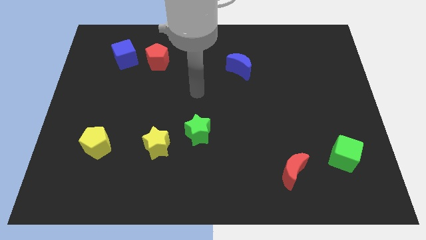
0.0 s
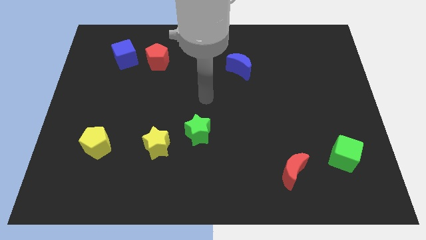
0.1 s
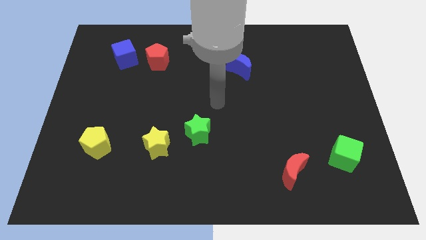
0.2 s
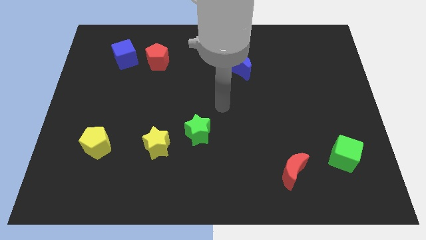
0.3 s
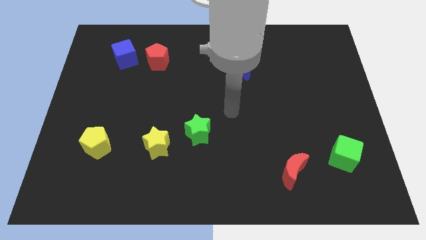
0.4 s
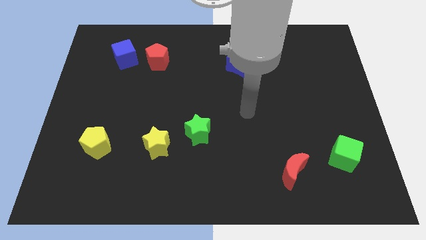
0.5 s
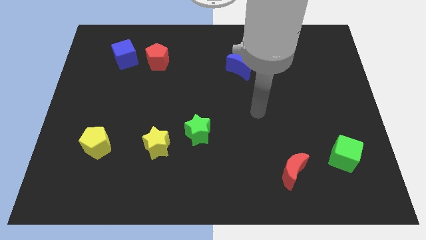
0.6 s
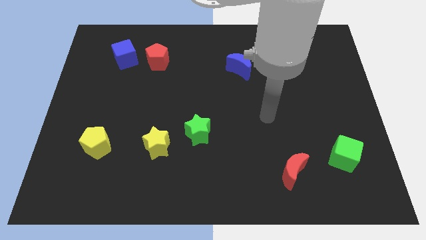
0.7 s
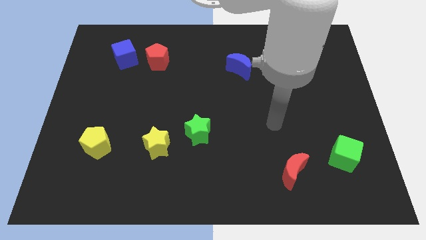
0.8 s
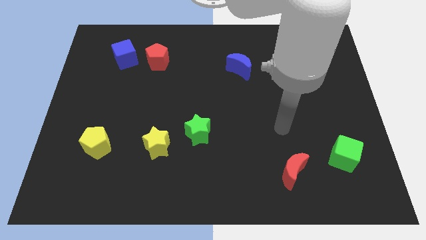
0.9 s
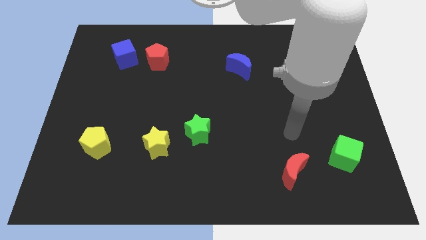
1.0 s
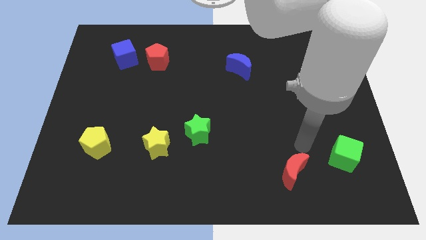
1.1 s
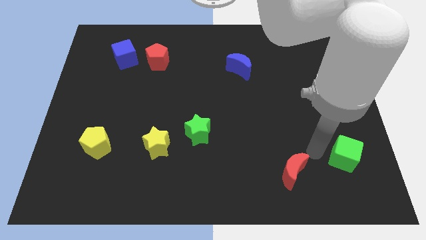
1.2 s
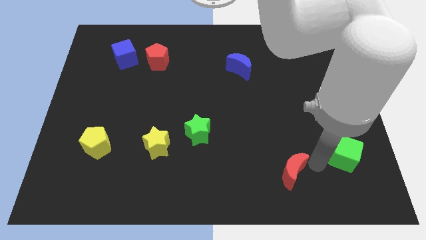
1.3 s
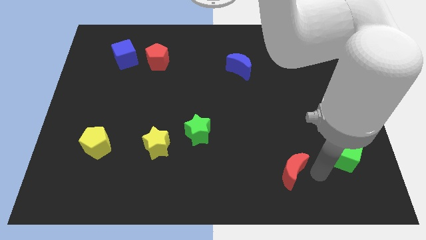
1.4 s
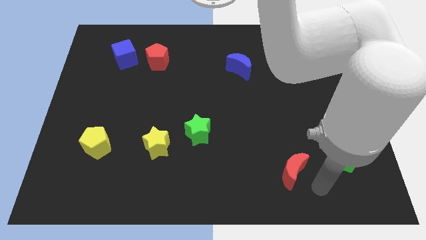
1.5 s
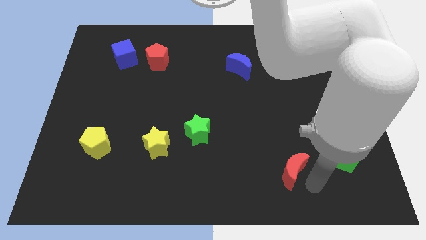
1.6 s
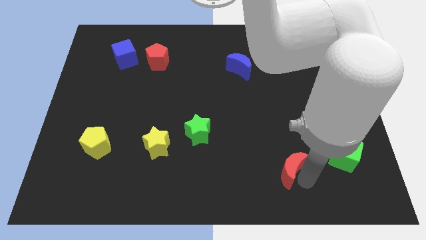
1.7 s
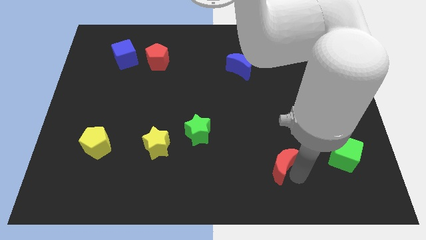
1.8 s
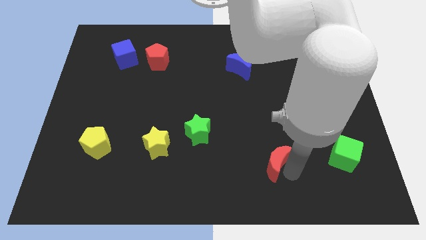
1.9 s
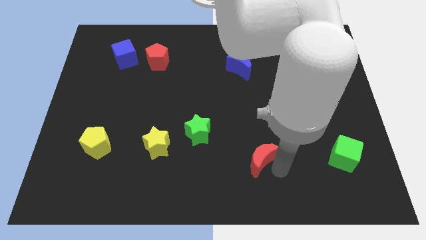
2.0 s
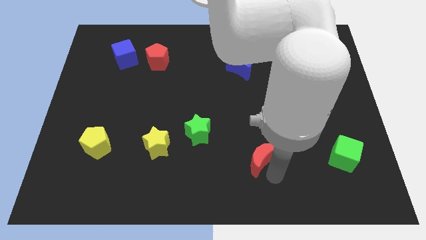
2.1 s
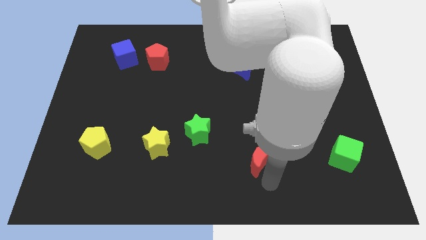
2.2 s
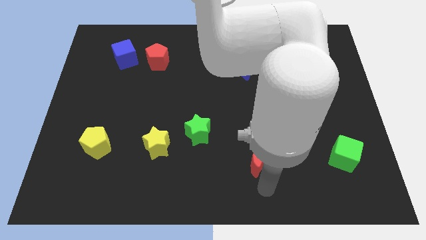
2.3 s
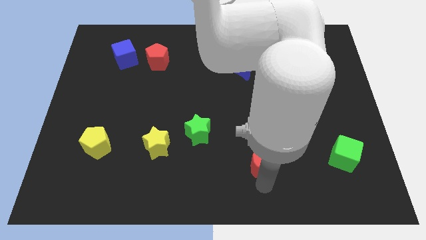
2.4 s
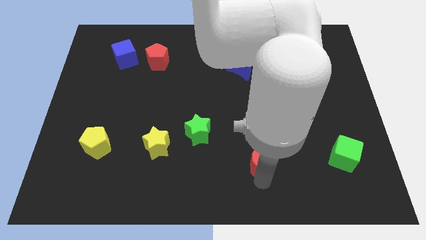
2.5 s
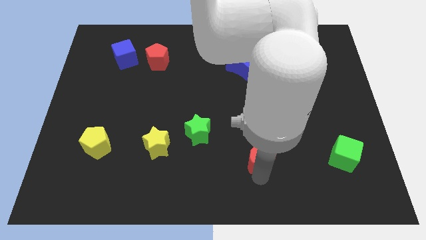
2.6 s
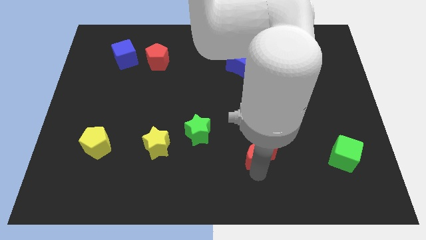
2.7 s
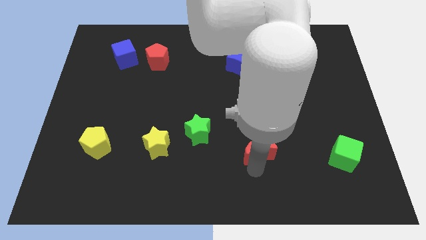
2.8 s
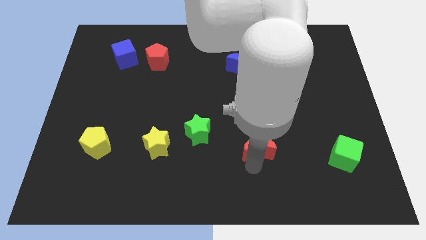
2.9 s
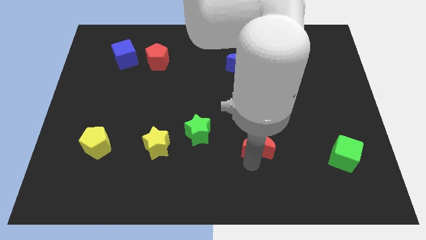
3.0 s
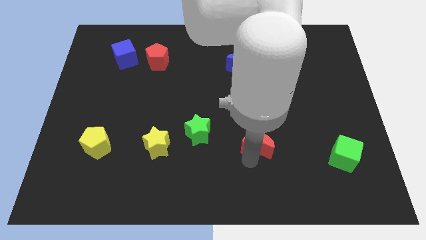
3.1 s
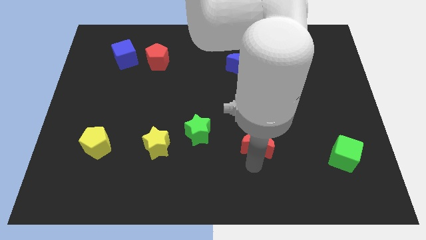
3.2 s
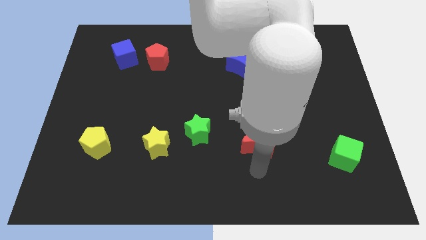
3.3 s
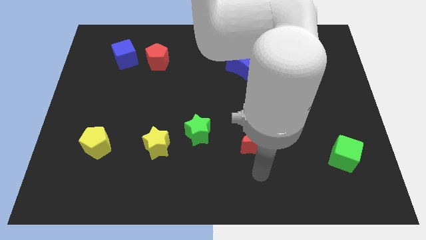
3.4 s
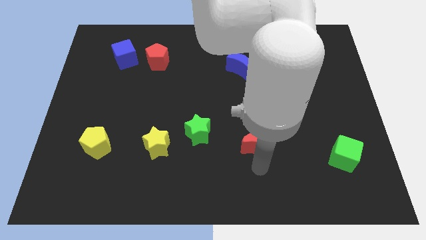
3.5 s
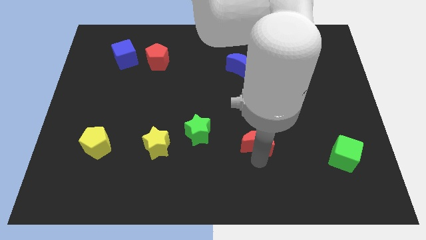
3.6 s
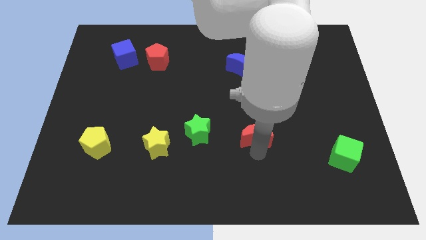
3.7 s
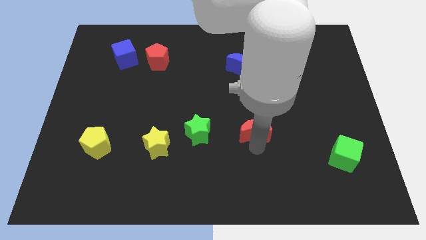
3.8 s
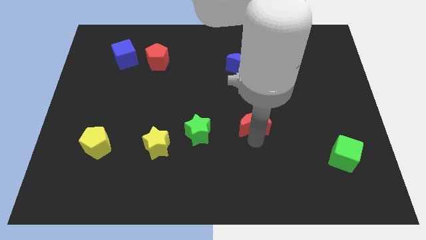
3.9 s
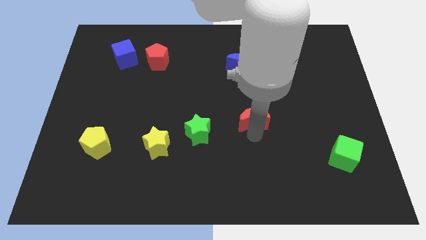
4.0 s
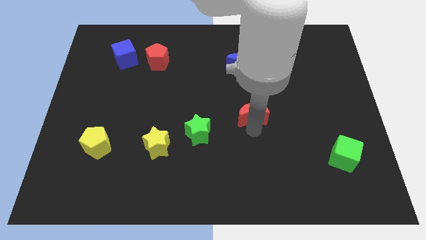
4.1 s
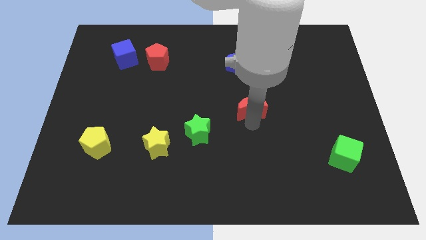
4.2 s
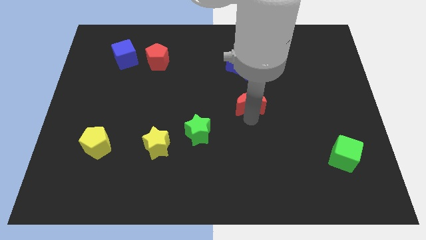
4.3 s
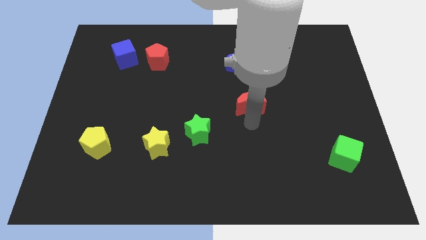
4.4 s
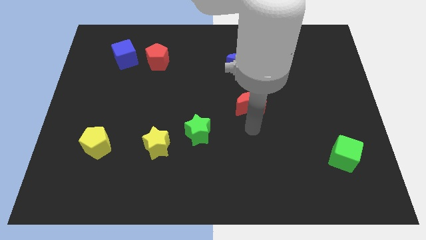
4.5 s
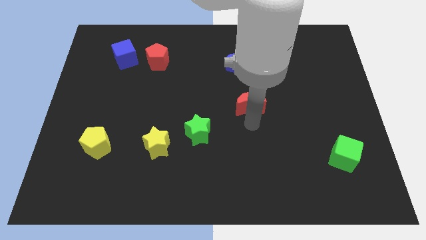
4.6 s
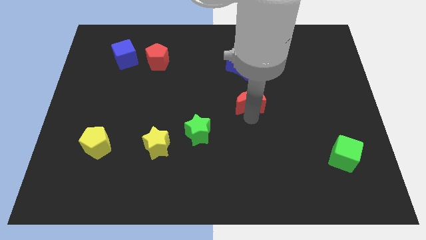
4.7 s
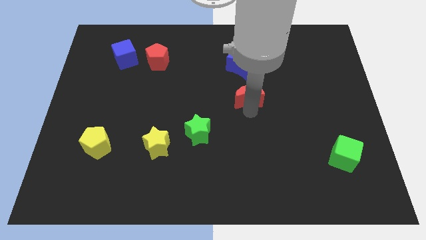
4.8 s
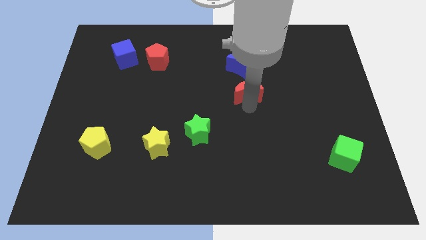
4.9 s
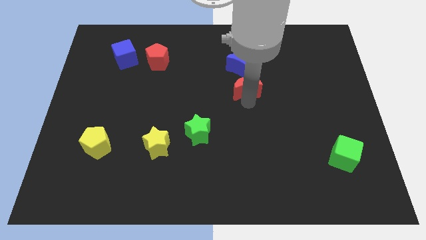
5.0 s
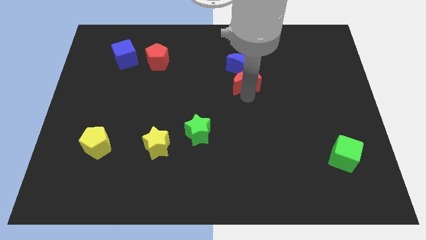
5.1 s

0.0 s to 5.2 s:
move the red moon close to the blue moon

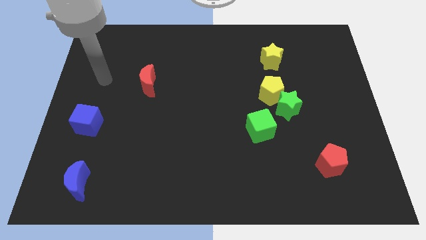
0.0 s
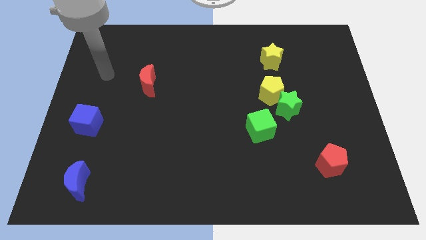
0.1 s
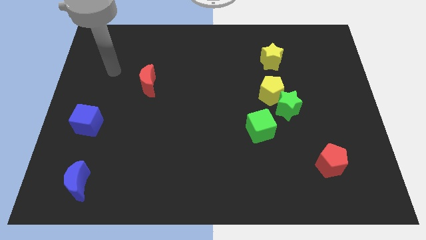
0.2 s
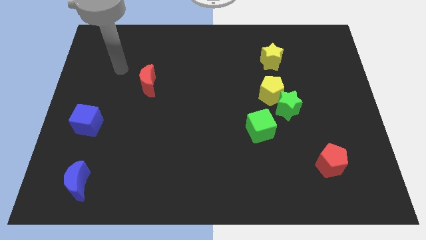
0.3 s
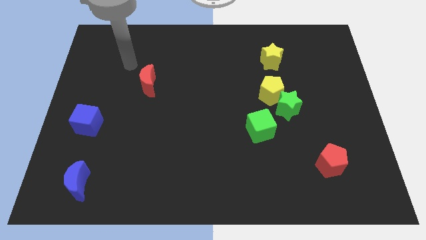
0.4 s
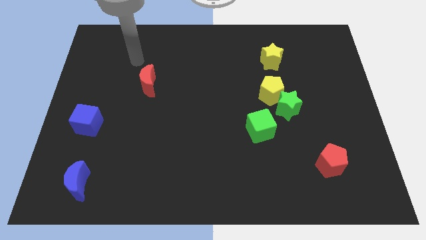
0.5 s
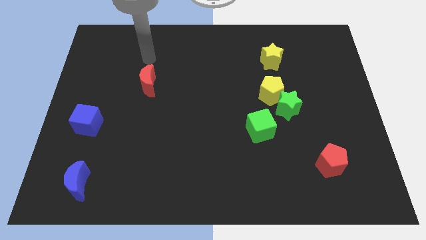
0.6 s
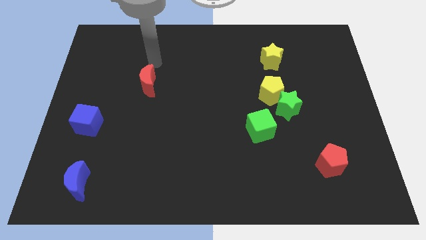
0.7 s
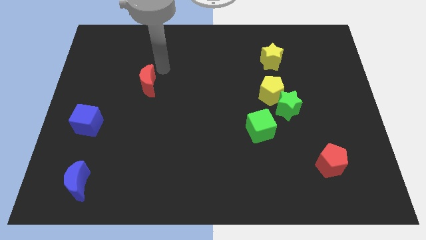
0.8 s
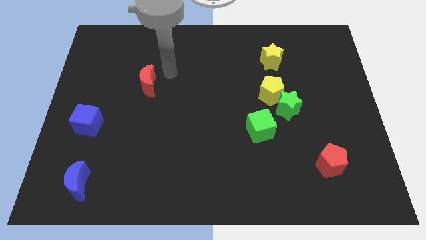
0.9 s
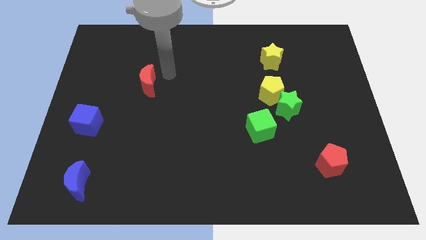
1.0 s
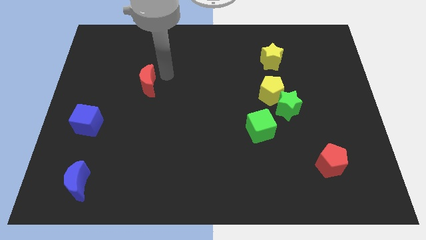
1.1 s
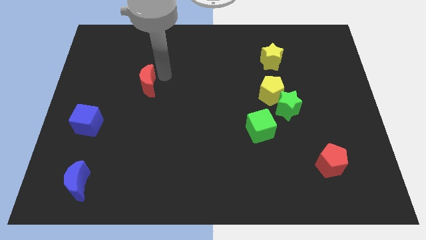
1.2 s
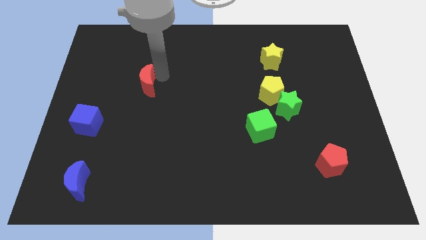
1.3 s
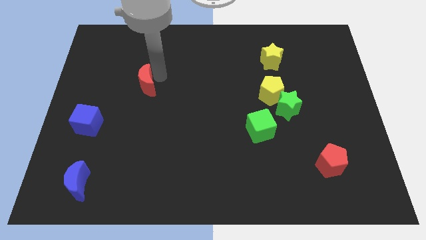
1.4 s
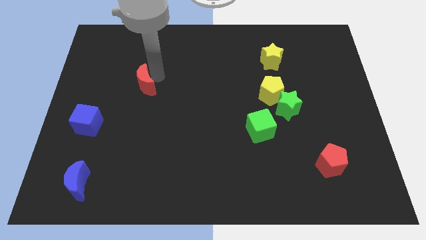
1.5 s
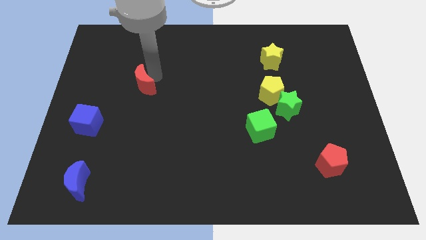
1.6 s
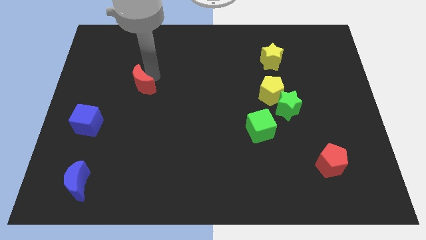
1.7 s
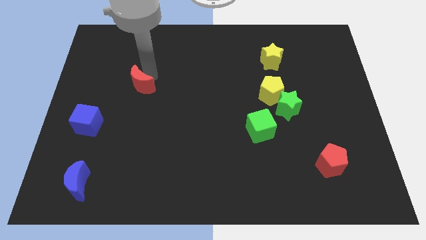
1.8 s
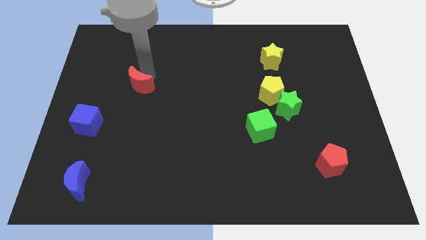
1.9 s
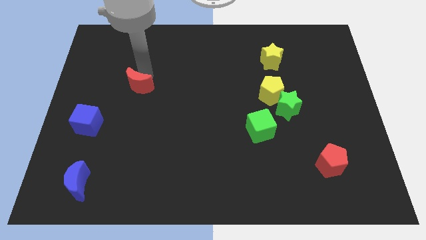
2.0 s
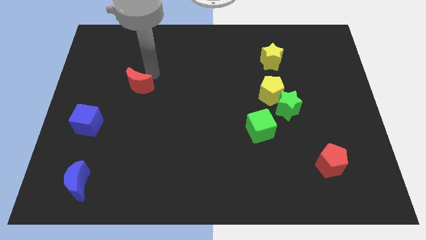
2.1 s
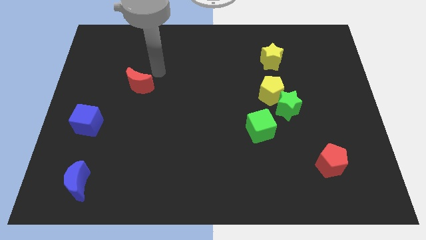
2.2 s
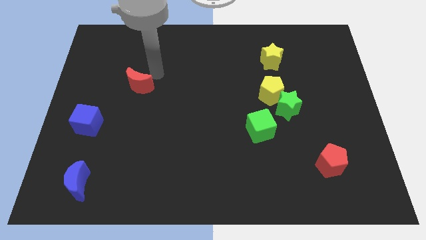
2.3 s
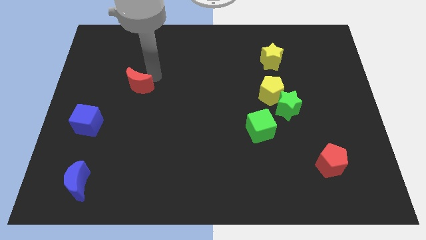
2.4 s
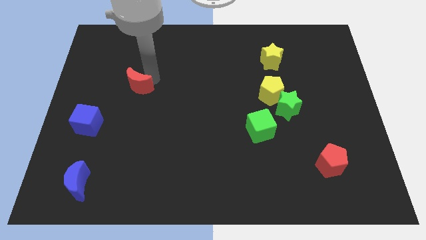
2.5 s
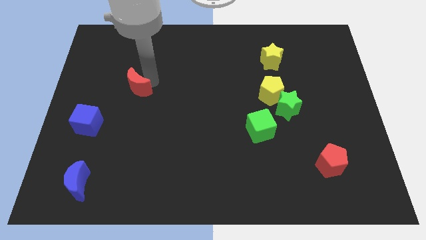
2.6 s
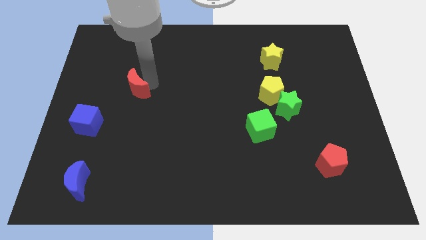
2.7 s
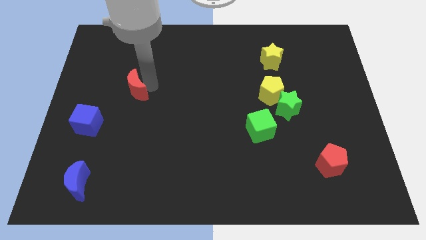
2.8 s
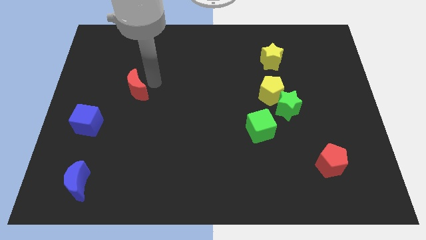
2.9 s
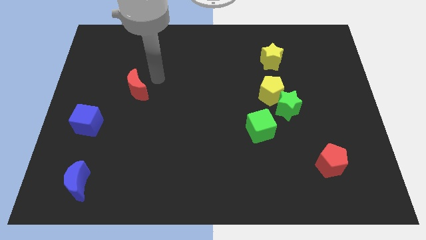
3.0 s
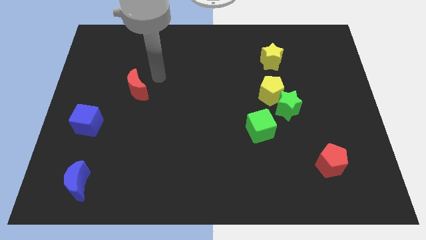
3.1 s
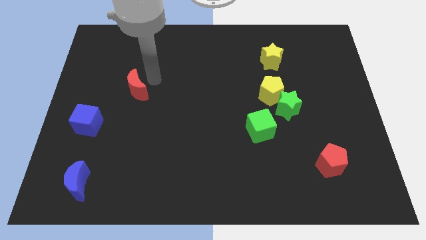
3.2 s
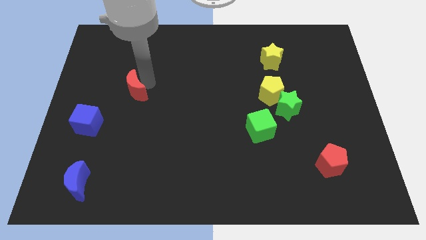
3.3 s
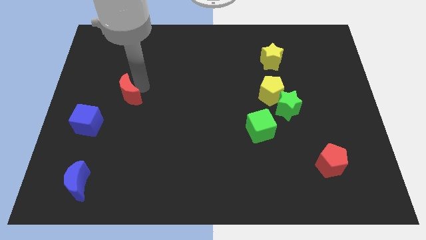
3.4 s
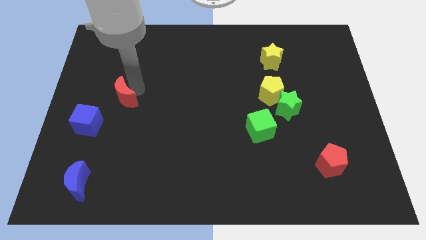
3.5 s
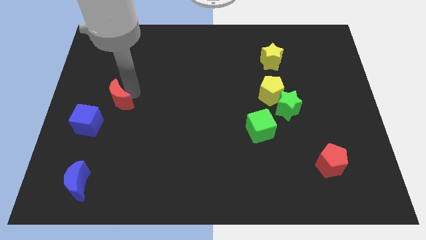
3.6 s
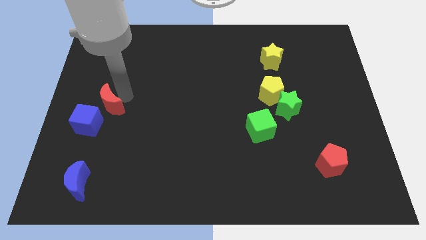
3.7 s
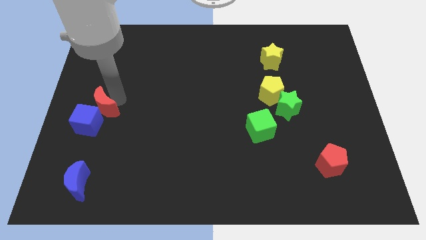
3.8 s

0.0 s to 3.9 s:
put the red moon close to the blue cube
